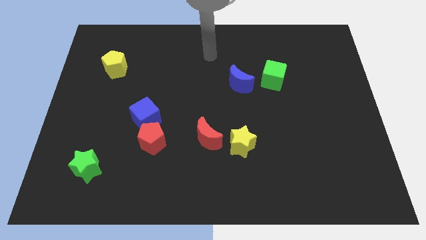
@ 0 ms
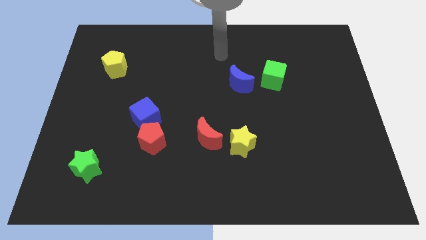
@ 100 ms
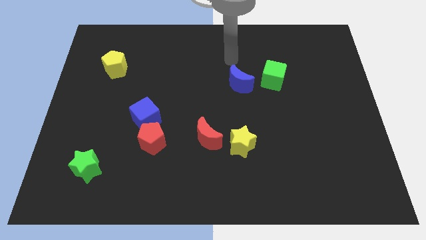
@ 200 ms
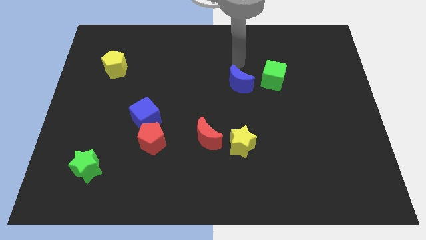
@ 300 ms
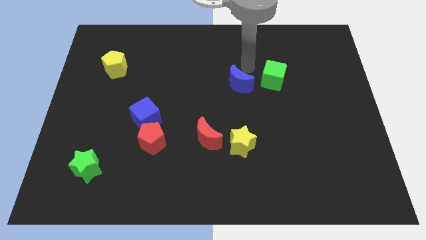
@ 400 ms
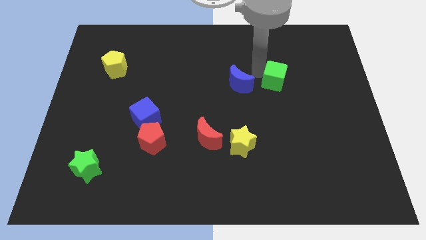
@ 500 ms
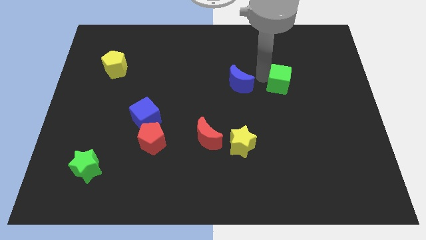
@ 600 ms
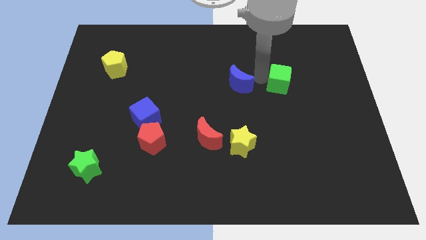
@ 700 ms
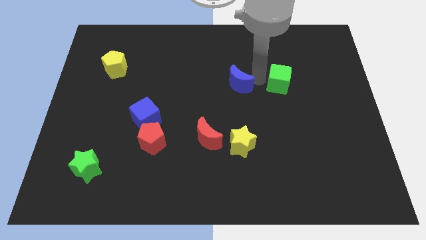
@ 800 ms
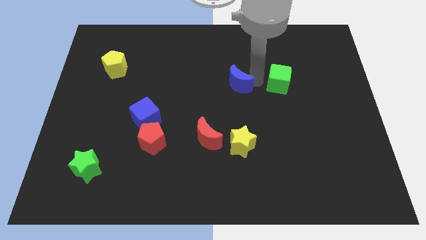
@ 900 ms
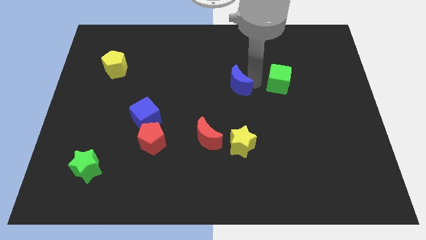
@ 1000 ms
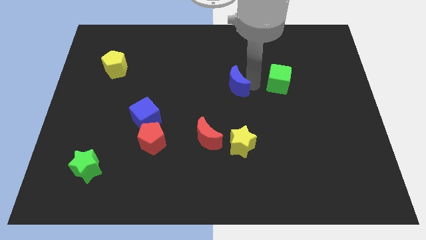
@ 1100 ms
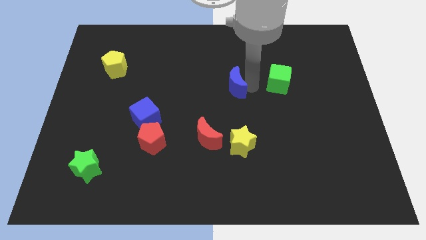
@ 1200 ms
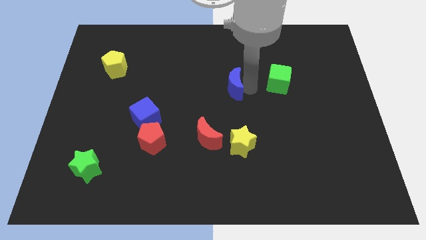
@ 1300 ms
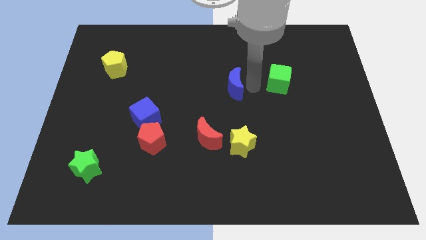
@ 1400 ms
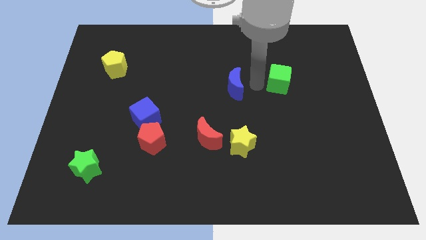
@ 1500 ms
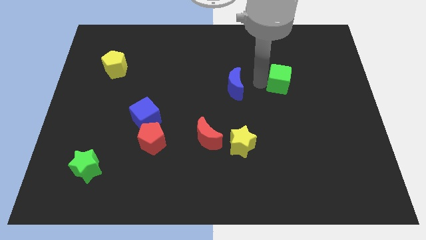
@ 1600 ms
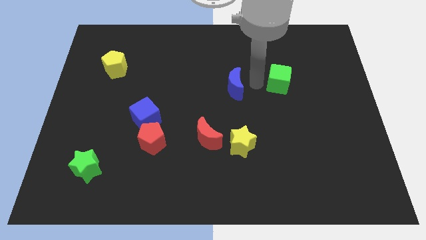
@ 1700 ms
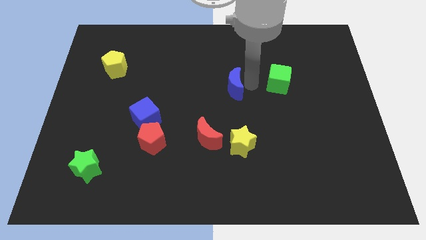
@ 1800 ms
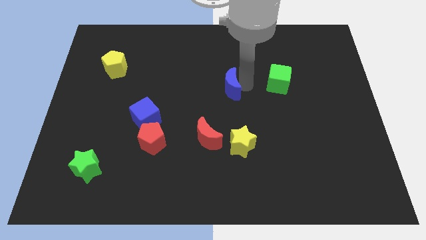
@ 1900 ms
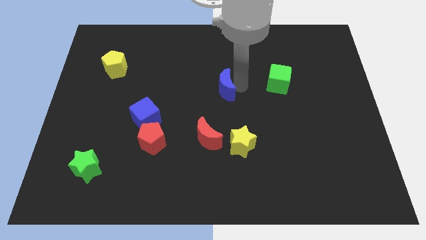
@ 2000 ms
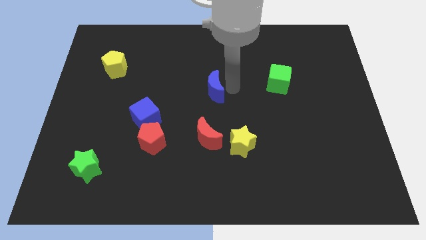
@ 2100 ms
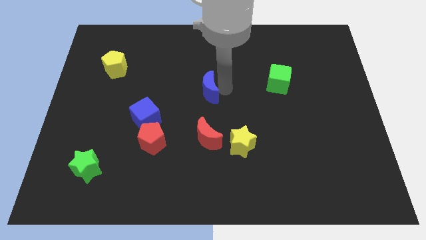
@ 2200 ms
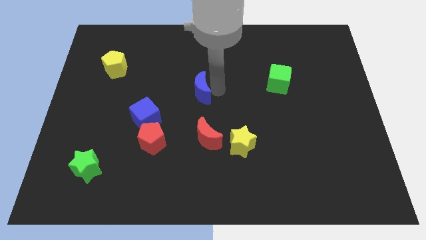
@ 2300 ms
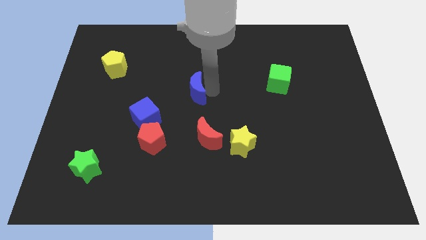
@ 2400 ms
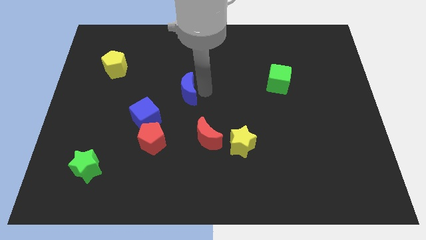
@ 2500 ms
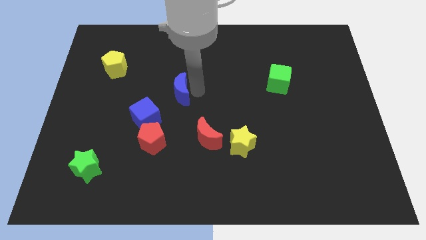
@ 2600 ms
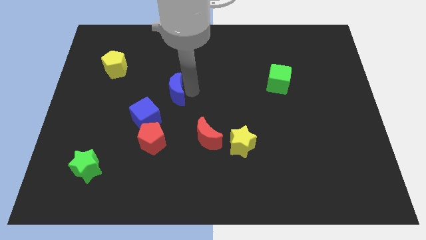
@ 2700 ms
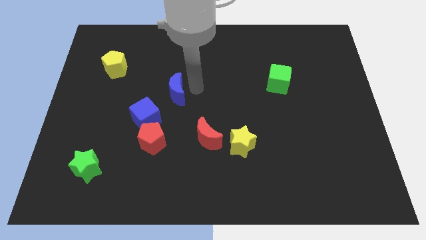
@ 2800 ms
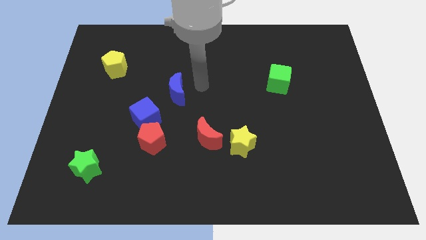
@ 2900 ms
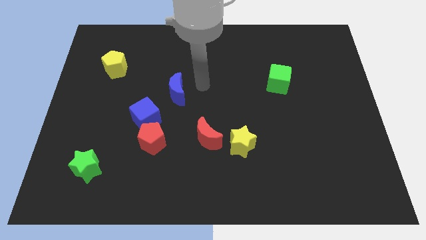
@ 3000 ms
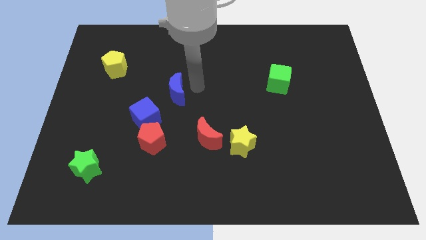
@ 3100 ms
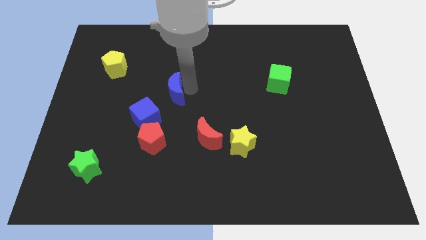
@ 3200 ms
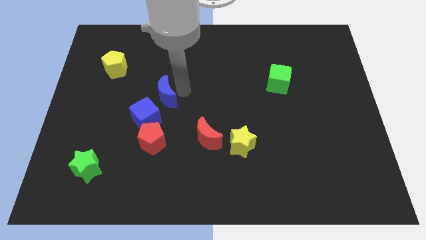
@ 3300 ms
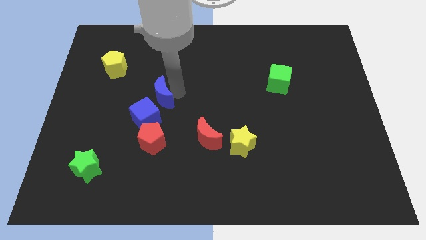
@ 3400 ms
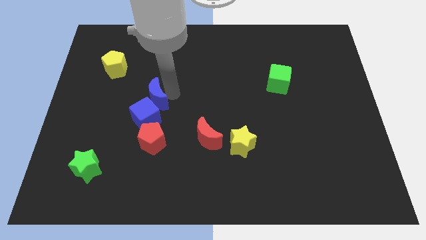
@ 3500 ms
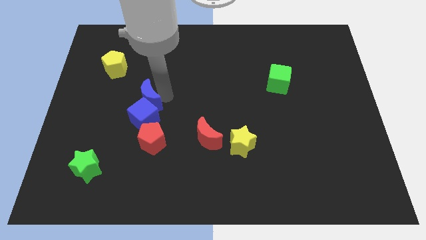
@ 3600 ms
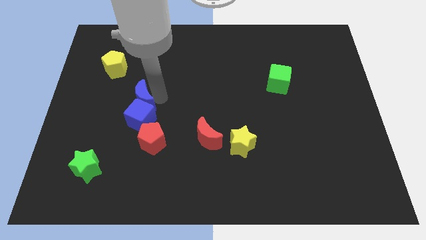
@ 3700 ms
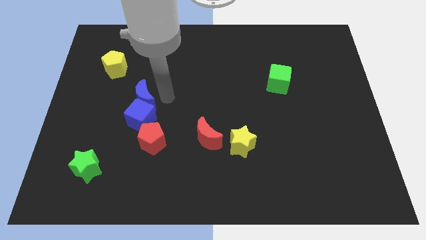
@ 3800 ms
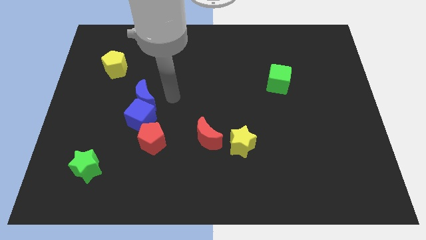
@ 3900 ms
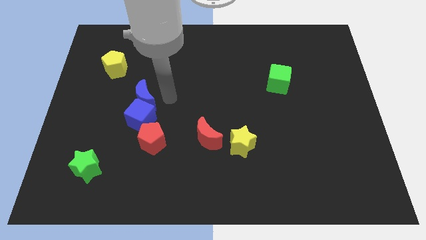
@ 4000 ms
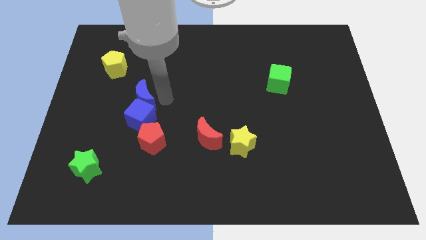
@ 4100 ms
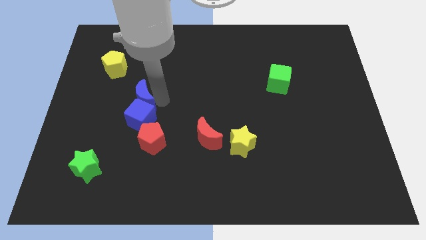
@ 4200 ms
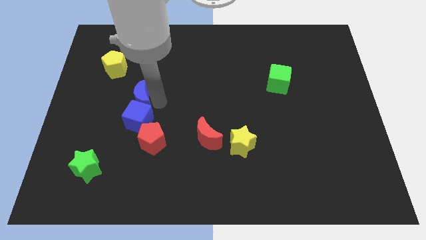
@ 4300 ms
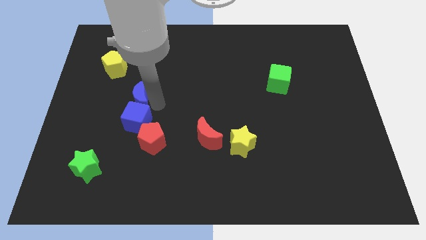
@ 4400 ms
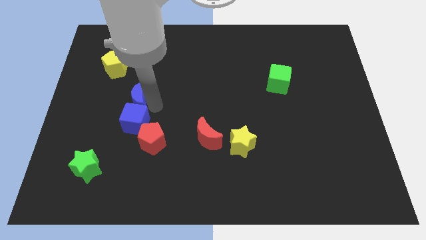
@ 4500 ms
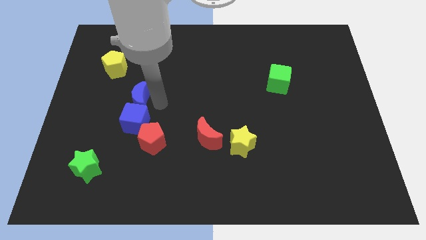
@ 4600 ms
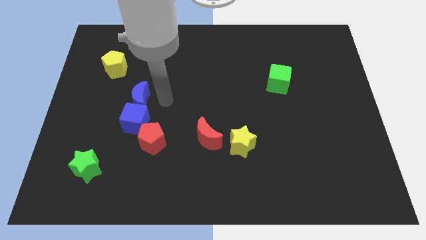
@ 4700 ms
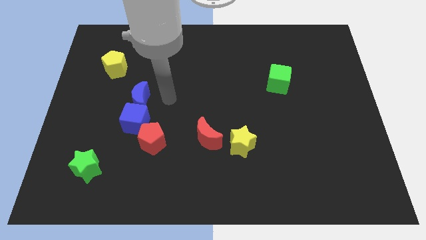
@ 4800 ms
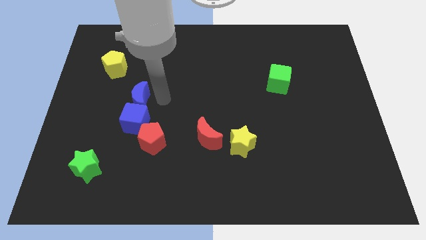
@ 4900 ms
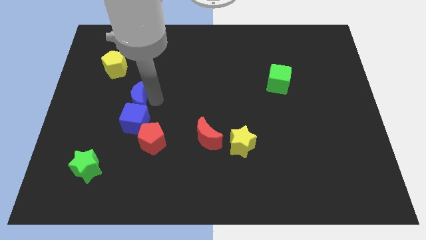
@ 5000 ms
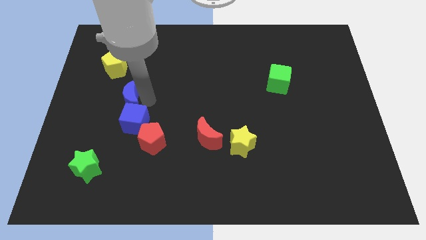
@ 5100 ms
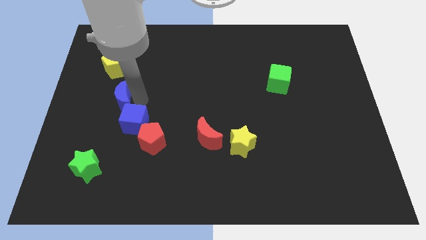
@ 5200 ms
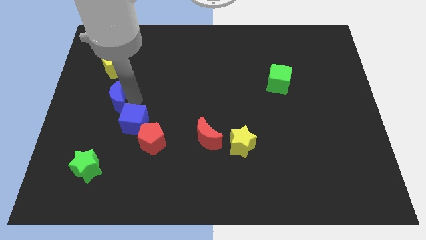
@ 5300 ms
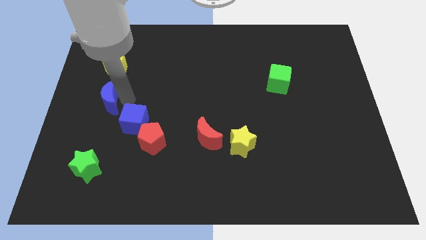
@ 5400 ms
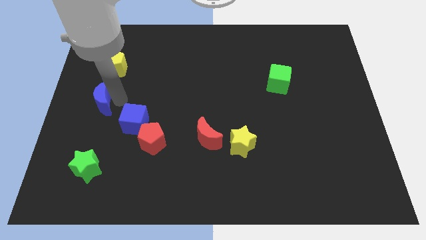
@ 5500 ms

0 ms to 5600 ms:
move the blue moon to the left side

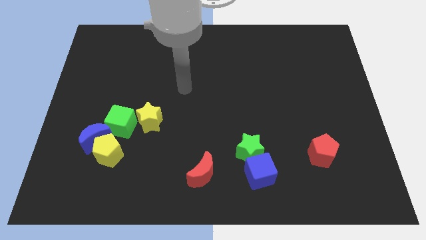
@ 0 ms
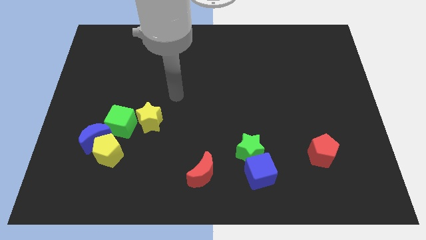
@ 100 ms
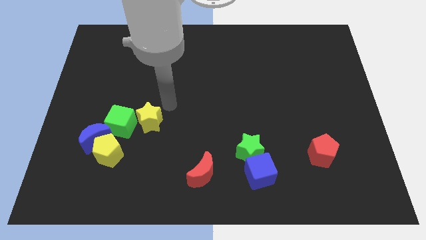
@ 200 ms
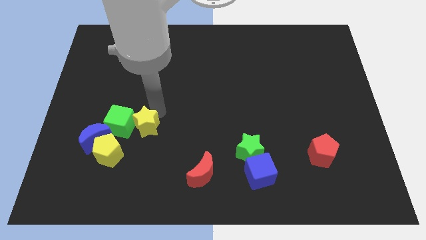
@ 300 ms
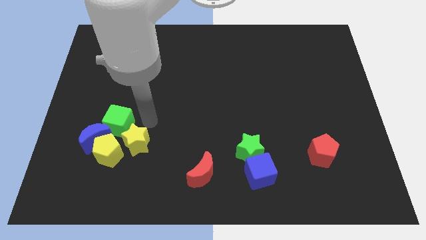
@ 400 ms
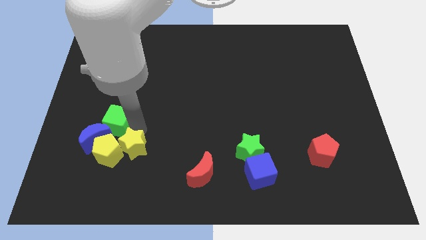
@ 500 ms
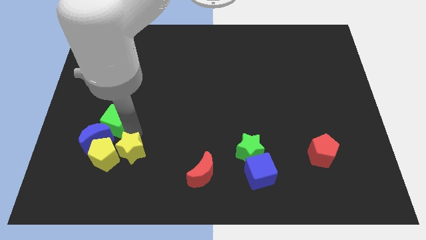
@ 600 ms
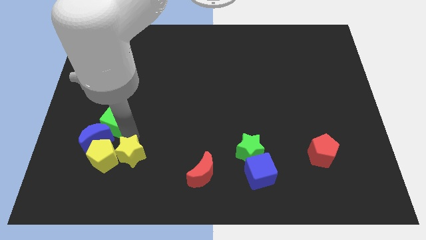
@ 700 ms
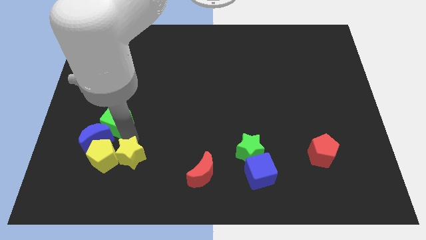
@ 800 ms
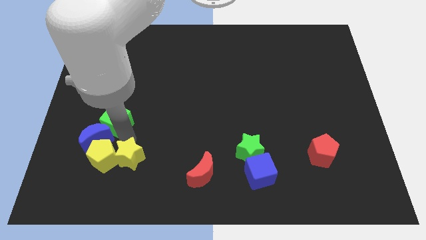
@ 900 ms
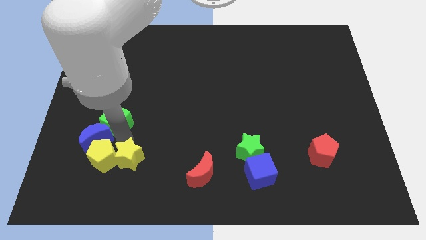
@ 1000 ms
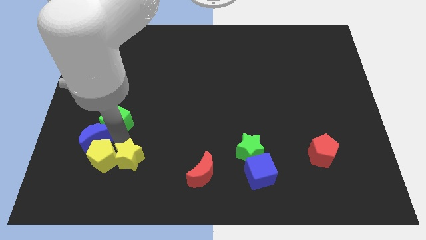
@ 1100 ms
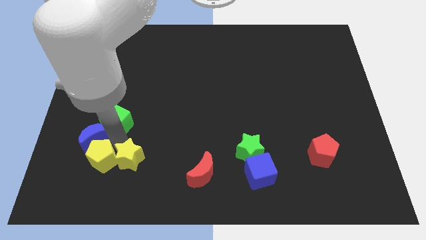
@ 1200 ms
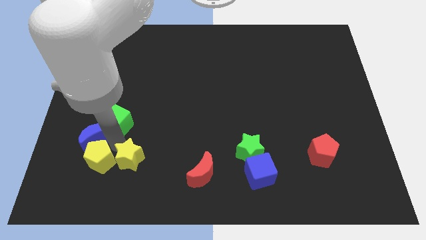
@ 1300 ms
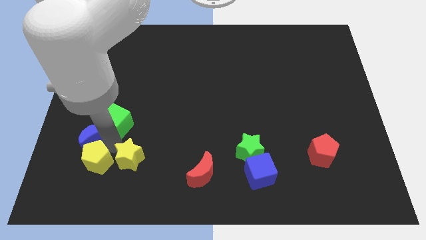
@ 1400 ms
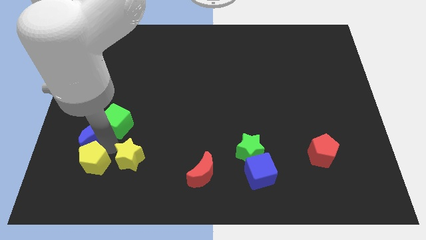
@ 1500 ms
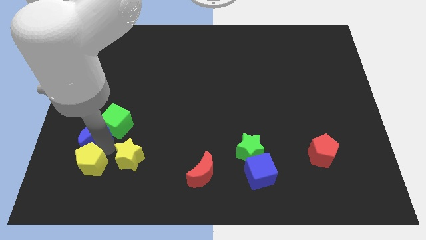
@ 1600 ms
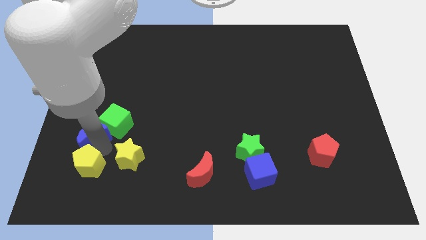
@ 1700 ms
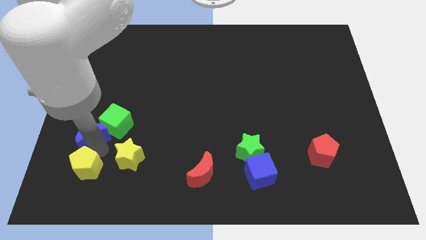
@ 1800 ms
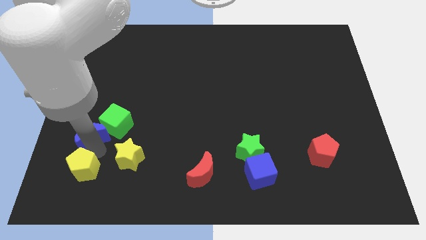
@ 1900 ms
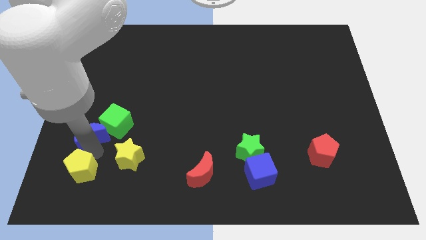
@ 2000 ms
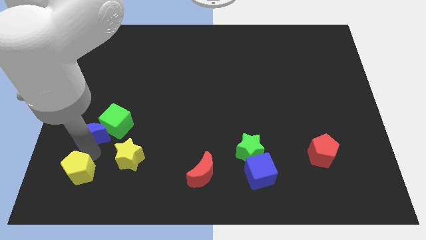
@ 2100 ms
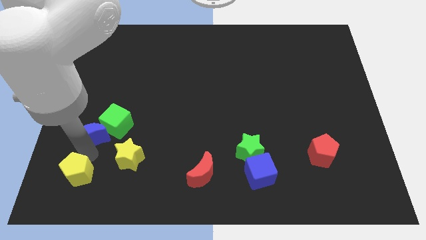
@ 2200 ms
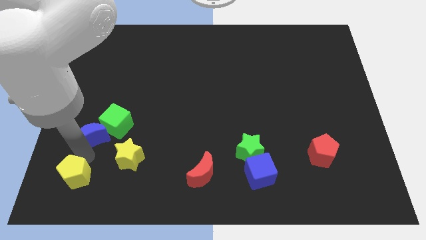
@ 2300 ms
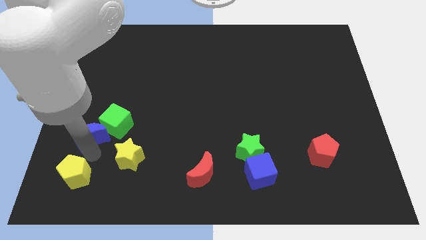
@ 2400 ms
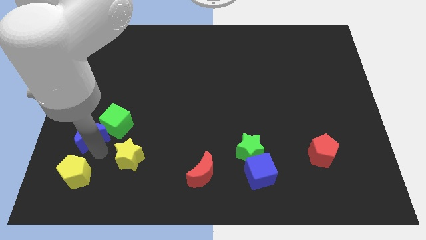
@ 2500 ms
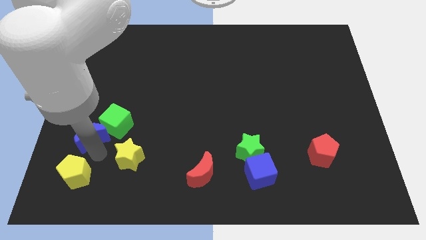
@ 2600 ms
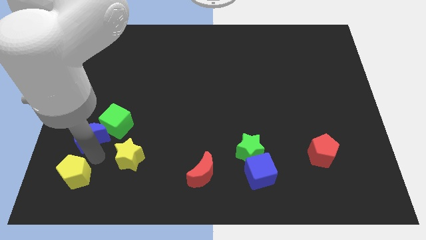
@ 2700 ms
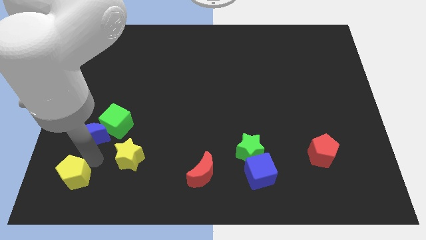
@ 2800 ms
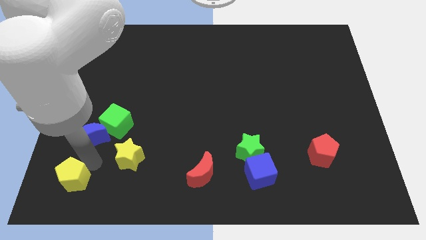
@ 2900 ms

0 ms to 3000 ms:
push the yellow pentagon to the bottom left
